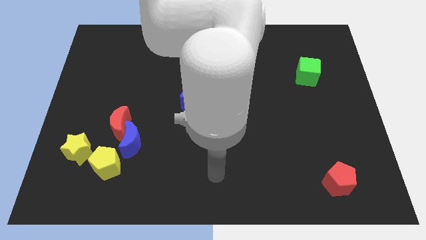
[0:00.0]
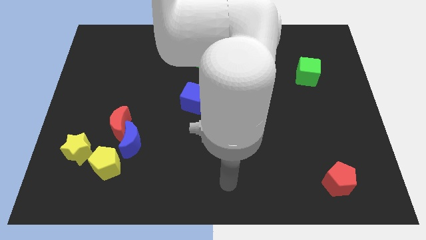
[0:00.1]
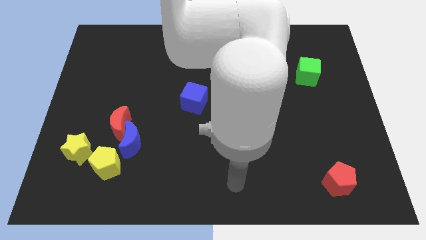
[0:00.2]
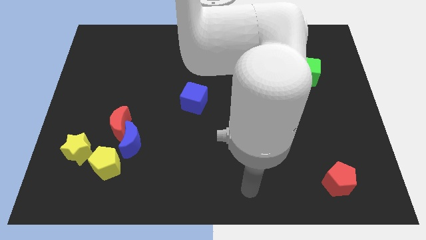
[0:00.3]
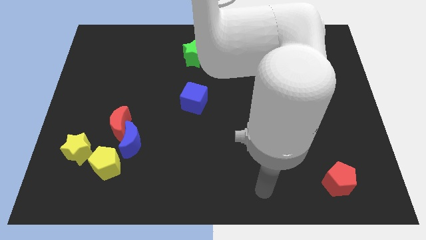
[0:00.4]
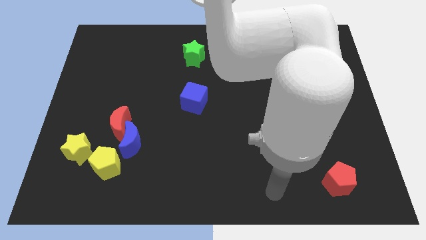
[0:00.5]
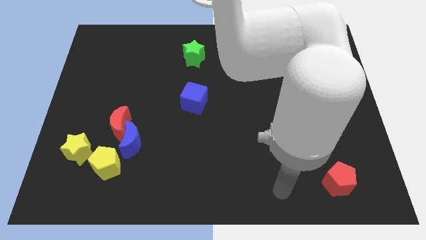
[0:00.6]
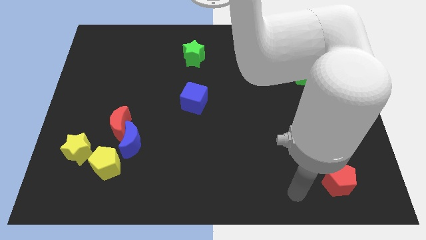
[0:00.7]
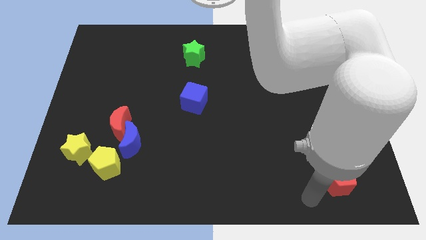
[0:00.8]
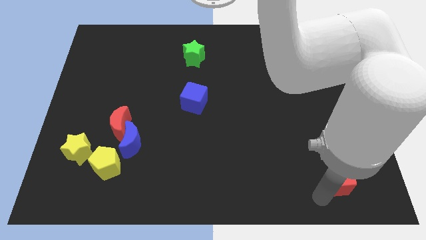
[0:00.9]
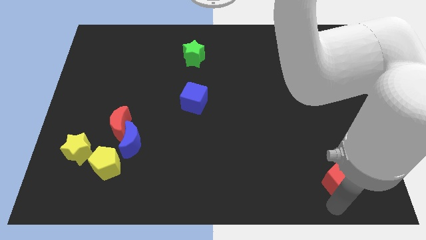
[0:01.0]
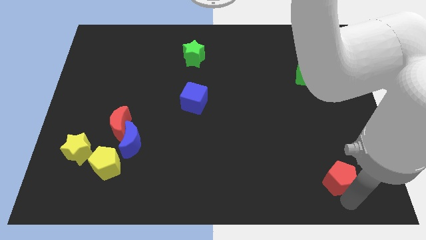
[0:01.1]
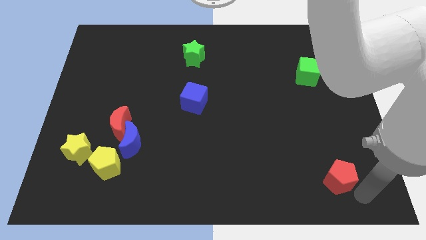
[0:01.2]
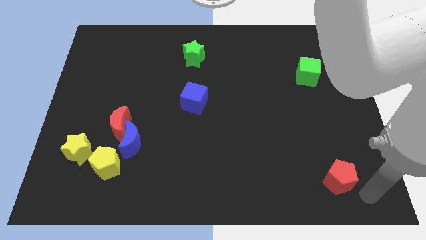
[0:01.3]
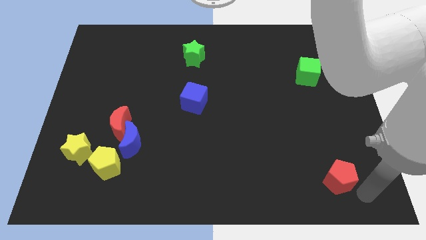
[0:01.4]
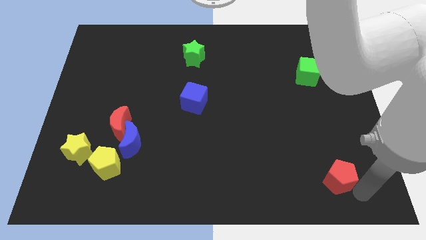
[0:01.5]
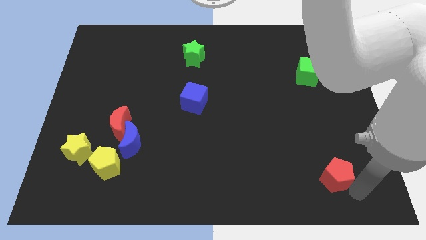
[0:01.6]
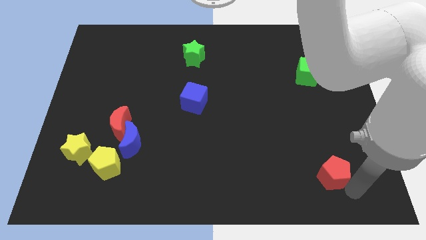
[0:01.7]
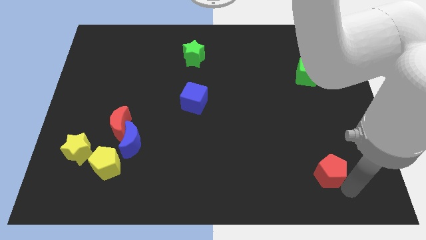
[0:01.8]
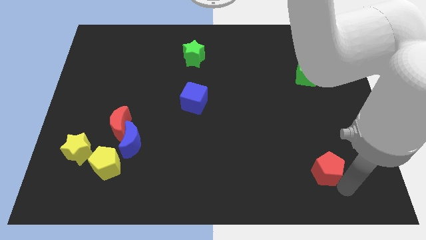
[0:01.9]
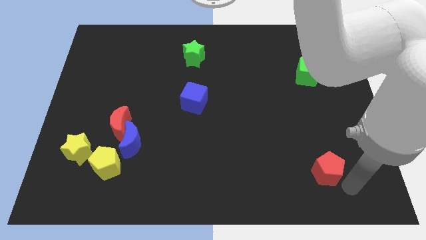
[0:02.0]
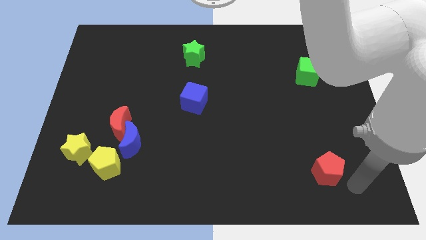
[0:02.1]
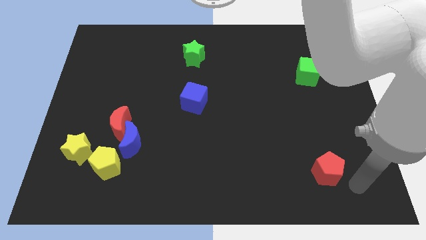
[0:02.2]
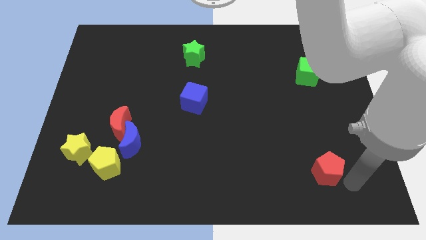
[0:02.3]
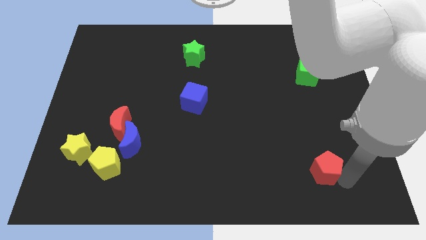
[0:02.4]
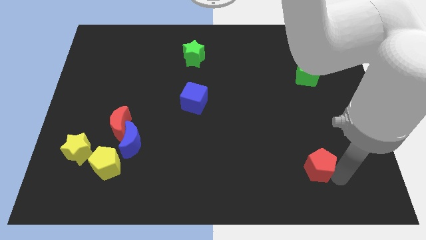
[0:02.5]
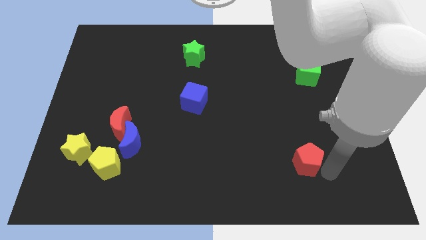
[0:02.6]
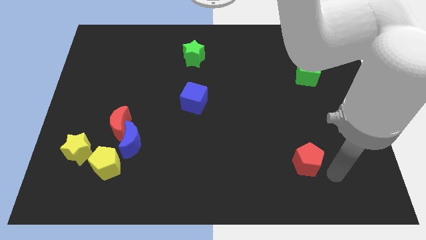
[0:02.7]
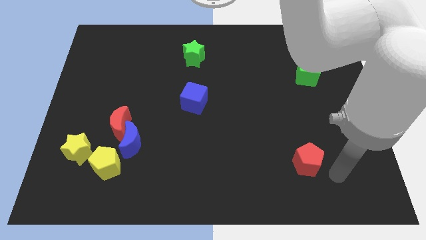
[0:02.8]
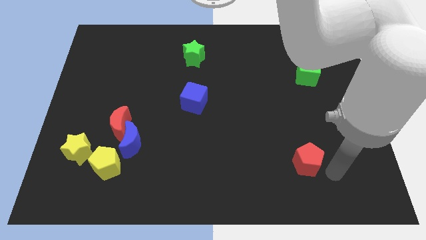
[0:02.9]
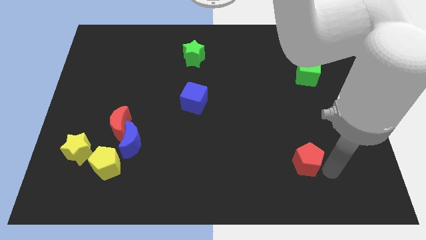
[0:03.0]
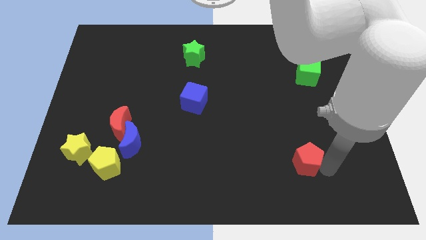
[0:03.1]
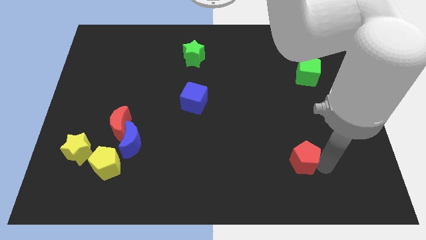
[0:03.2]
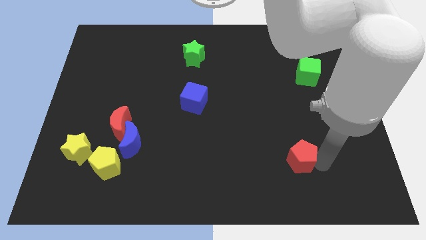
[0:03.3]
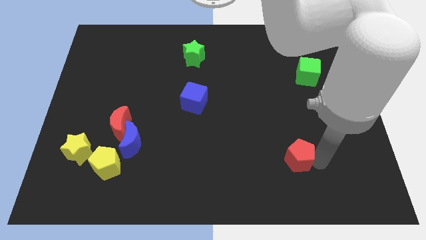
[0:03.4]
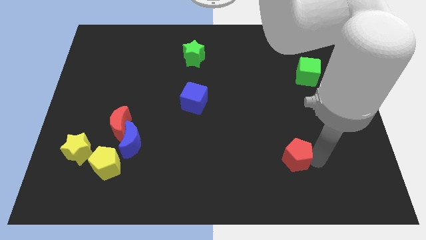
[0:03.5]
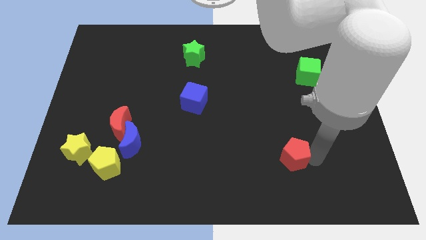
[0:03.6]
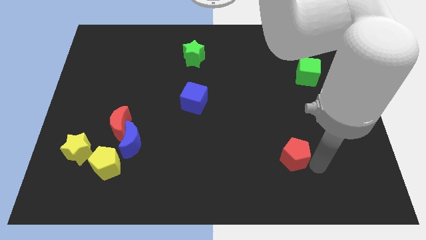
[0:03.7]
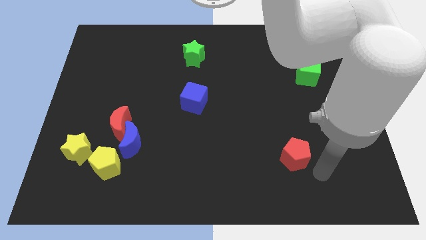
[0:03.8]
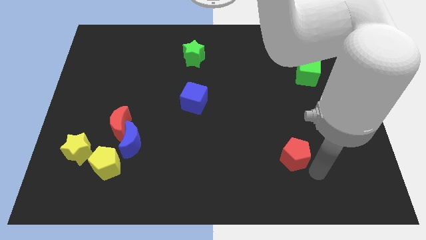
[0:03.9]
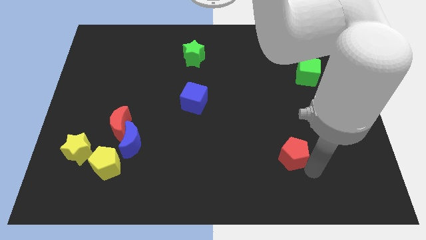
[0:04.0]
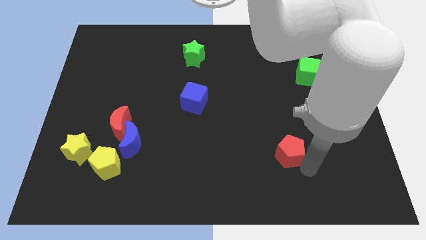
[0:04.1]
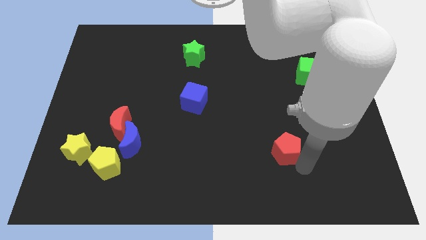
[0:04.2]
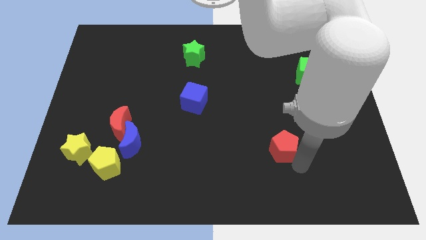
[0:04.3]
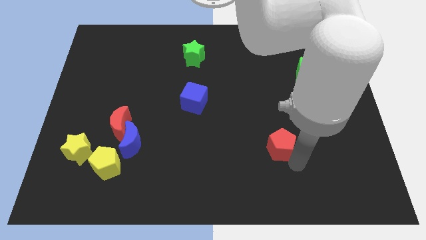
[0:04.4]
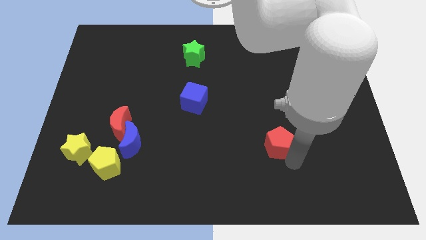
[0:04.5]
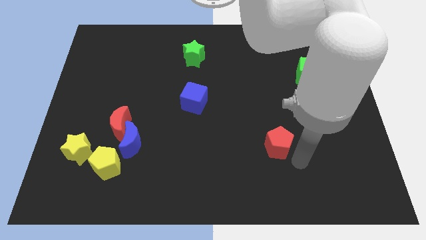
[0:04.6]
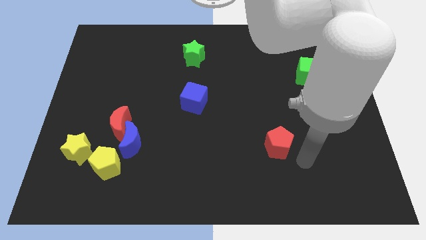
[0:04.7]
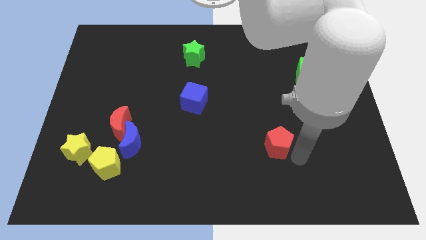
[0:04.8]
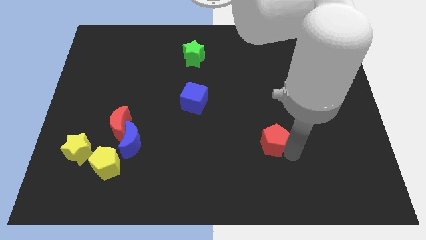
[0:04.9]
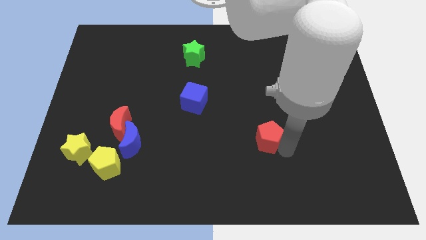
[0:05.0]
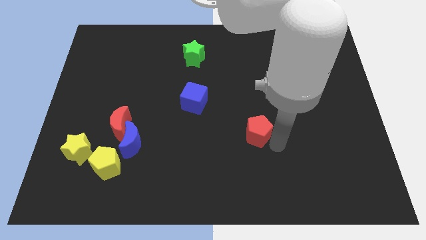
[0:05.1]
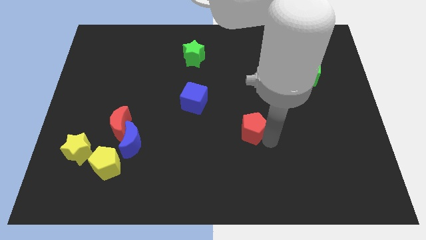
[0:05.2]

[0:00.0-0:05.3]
slide the red pentagon to the middle

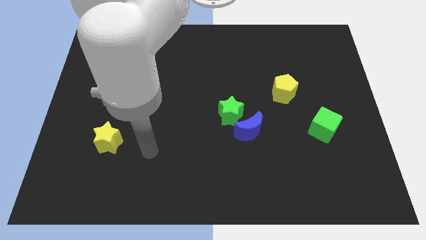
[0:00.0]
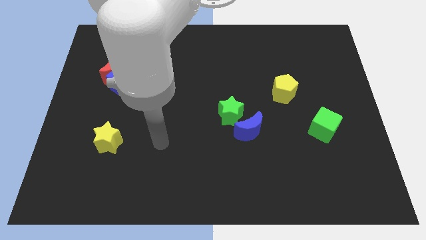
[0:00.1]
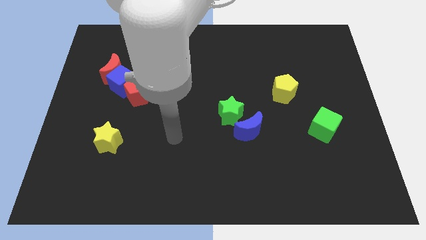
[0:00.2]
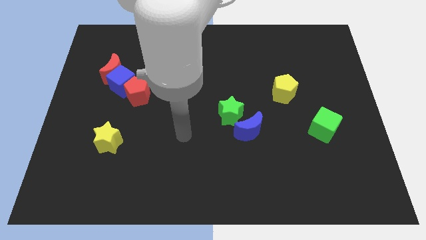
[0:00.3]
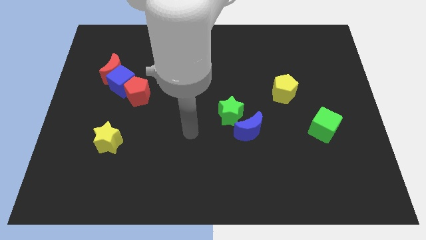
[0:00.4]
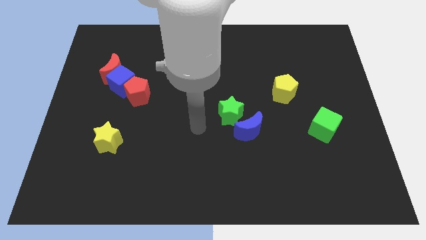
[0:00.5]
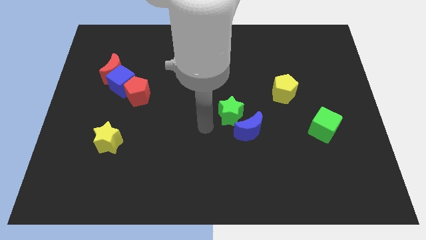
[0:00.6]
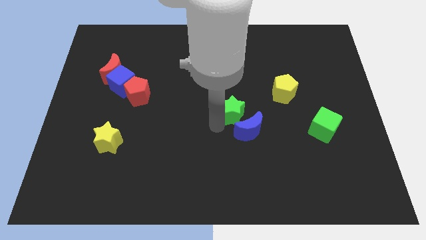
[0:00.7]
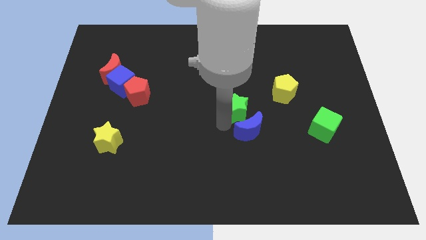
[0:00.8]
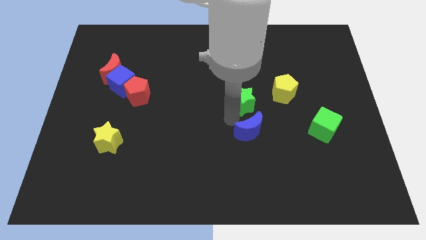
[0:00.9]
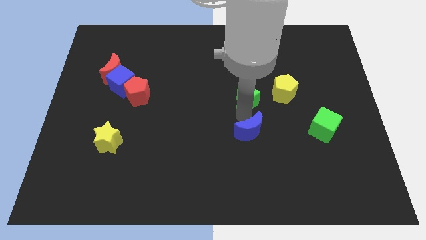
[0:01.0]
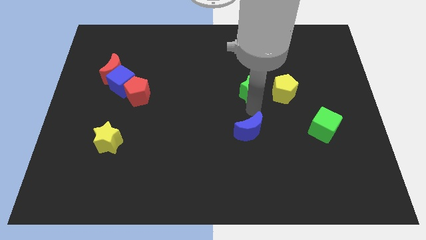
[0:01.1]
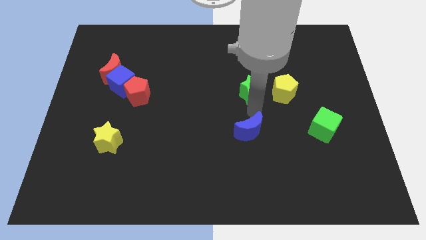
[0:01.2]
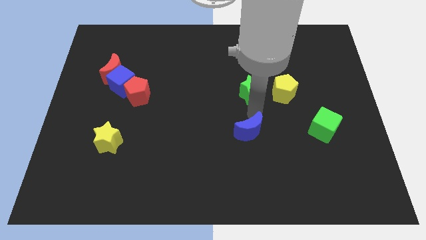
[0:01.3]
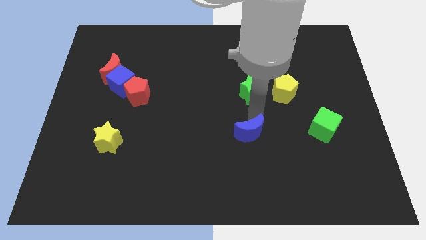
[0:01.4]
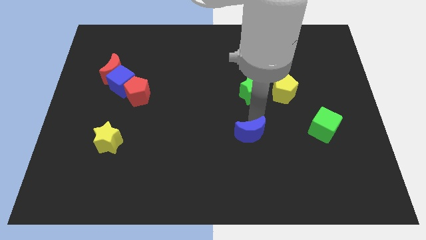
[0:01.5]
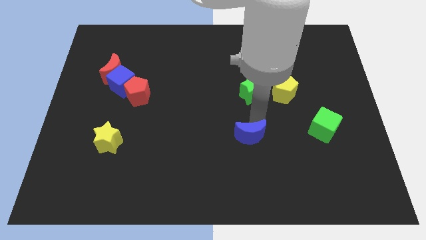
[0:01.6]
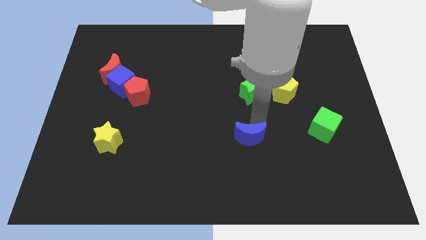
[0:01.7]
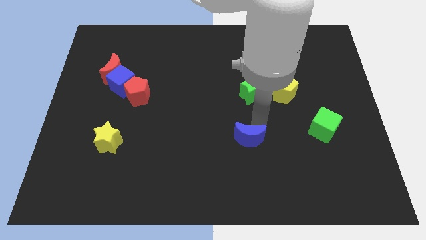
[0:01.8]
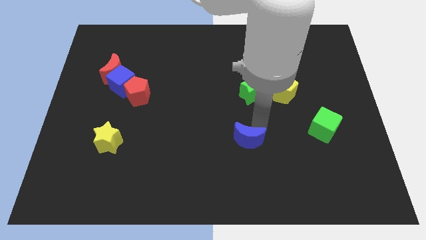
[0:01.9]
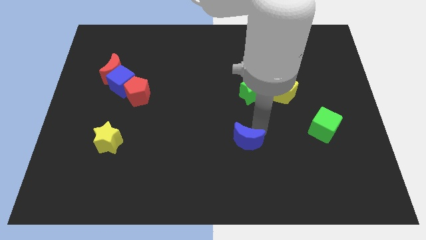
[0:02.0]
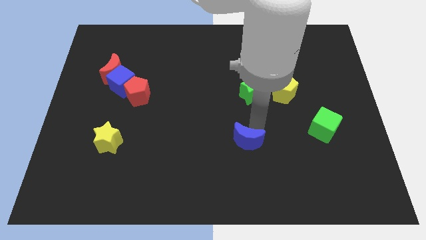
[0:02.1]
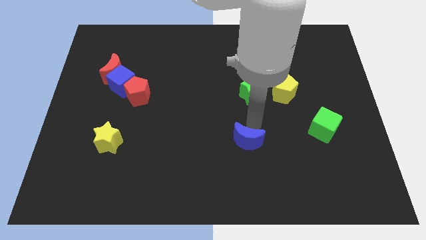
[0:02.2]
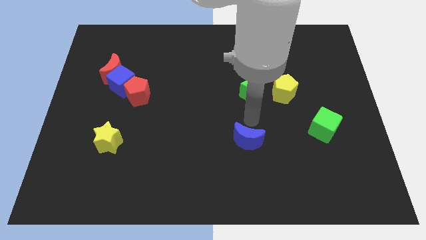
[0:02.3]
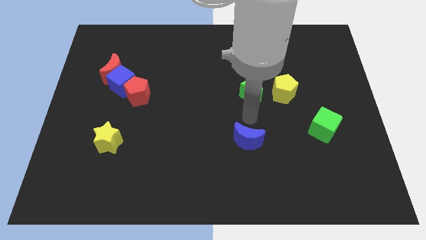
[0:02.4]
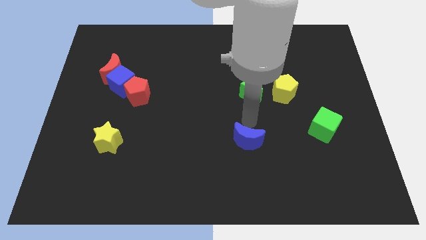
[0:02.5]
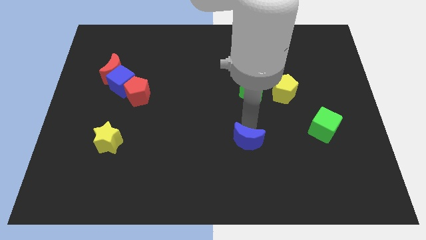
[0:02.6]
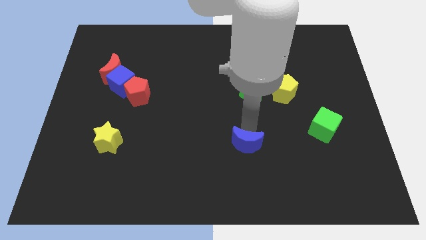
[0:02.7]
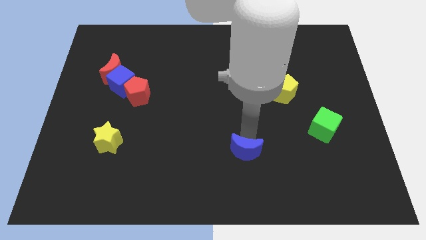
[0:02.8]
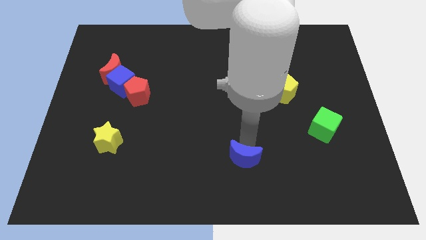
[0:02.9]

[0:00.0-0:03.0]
put the blue moon to the bottom side
